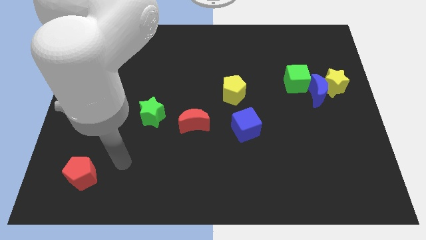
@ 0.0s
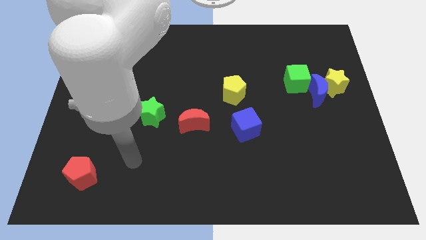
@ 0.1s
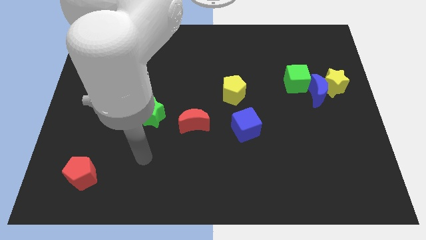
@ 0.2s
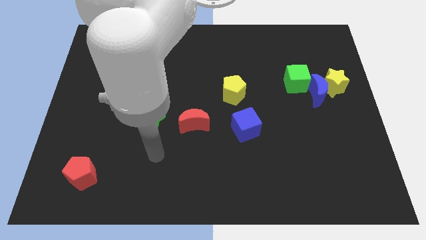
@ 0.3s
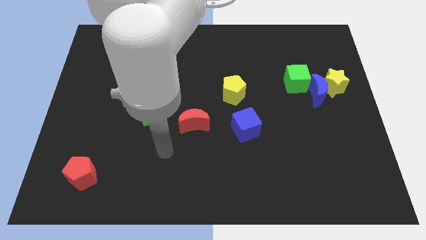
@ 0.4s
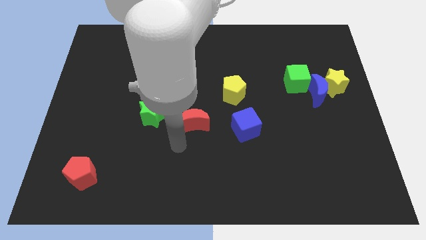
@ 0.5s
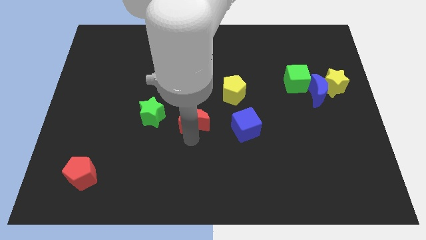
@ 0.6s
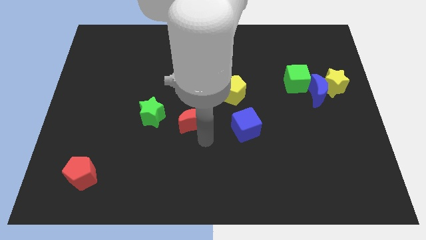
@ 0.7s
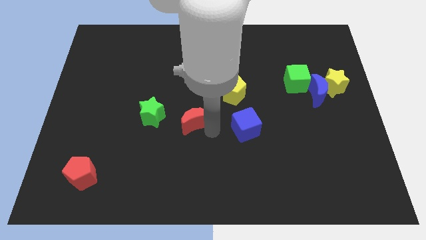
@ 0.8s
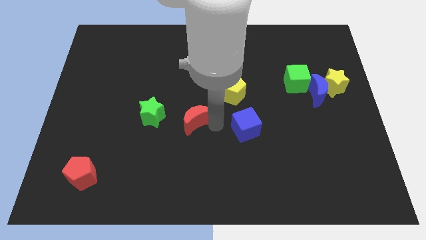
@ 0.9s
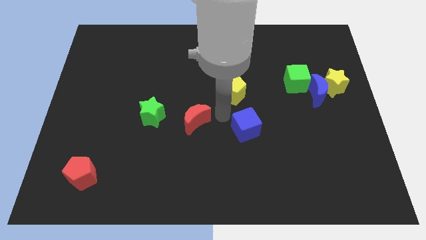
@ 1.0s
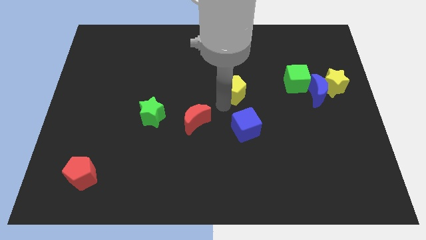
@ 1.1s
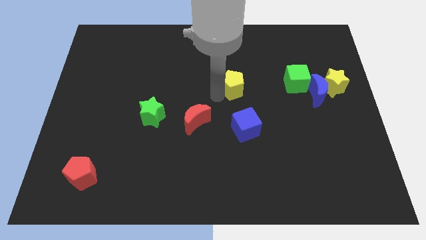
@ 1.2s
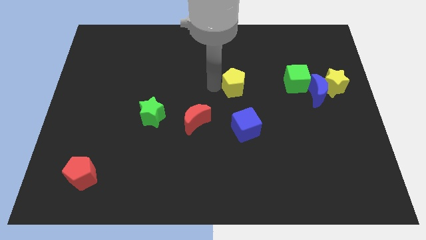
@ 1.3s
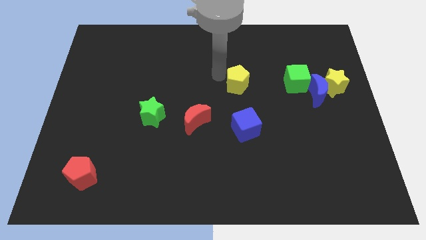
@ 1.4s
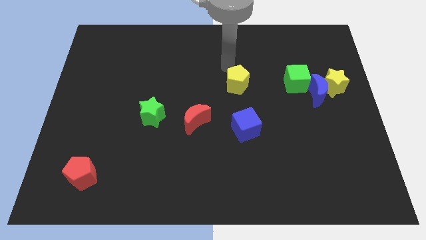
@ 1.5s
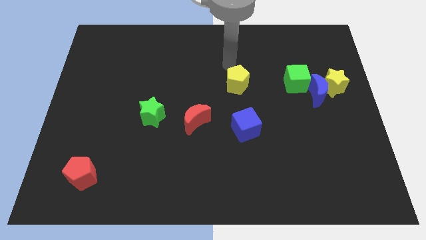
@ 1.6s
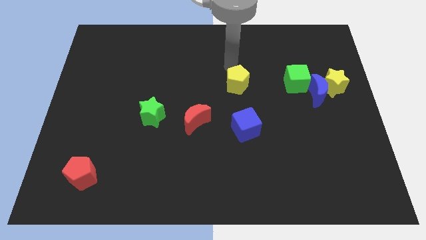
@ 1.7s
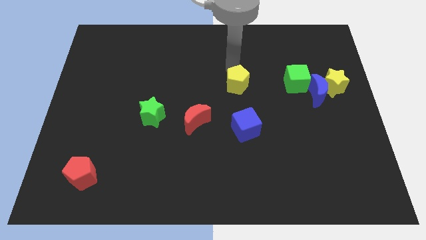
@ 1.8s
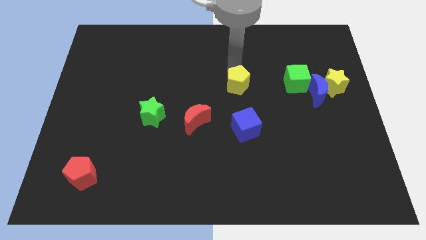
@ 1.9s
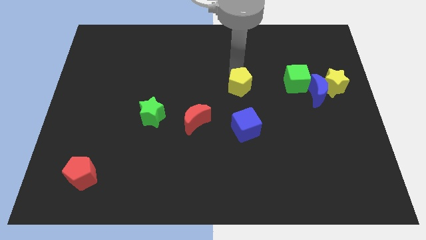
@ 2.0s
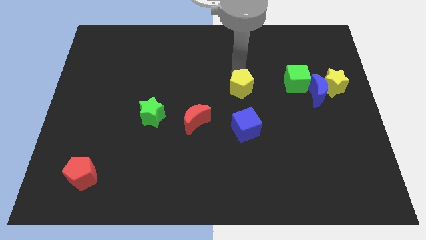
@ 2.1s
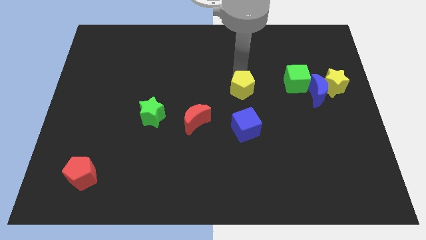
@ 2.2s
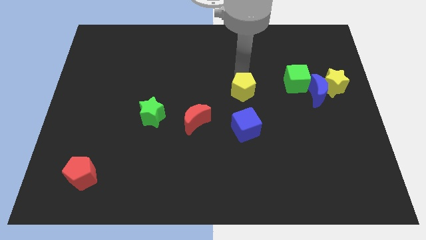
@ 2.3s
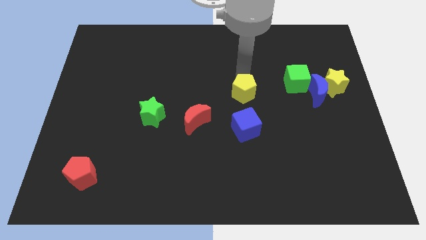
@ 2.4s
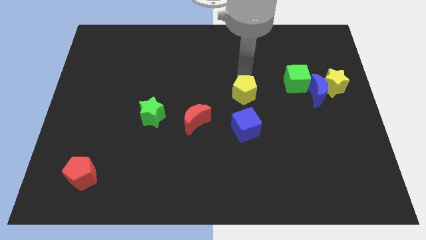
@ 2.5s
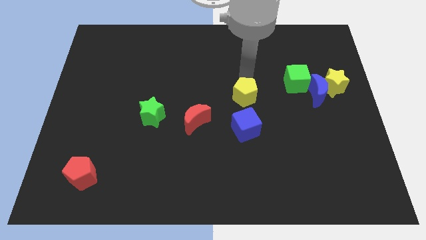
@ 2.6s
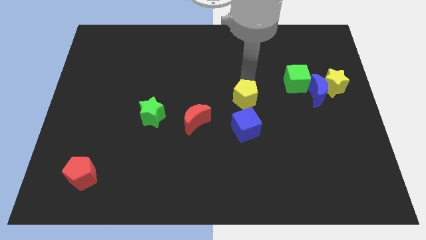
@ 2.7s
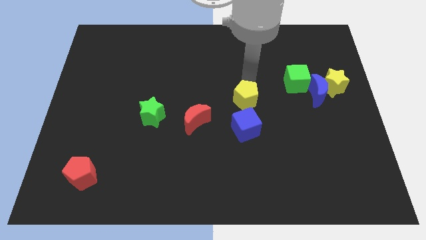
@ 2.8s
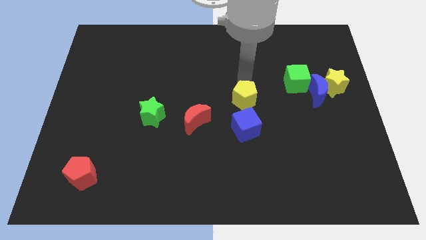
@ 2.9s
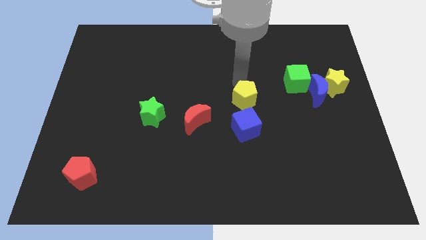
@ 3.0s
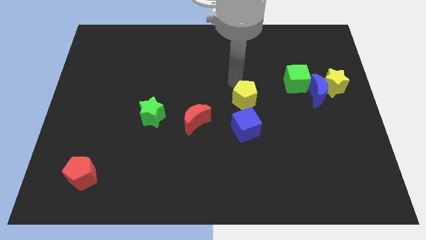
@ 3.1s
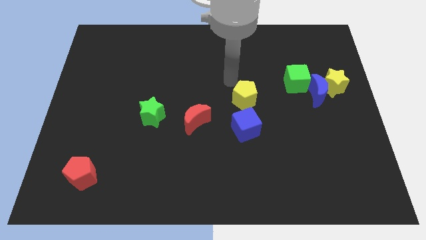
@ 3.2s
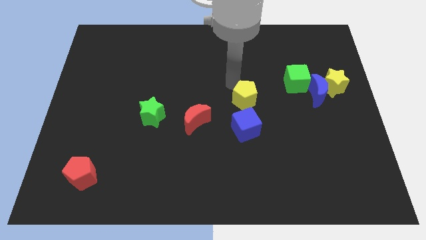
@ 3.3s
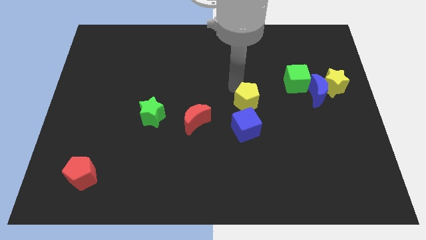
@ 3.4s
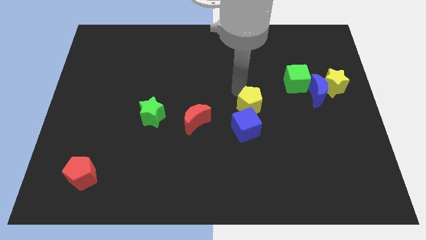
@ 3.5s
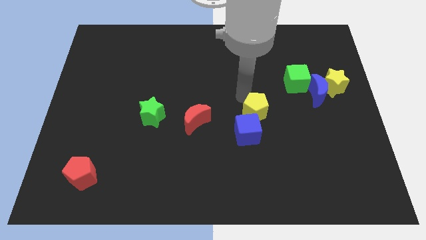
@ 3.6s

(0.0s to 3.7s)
push the yellow pentagon a little bit diagonally downwards and right

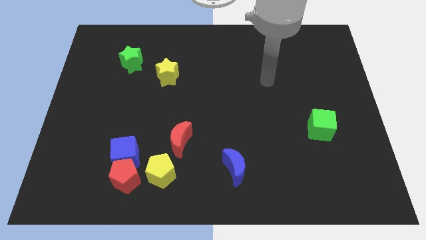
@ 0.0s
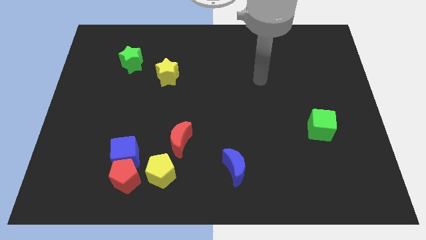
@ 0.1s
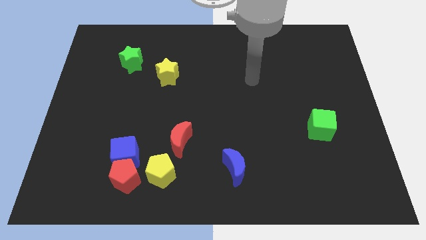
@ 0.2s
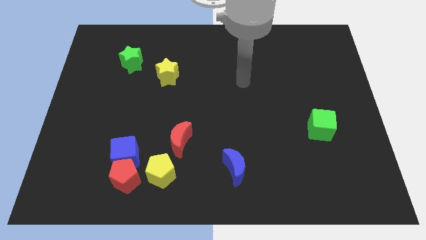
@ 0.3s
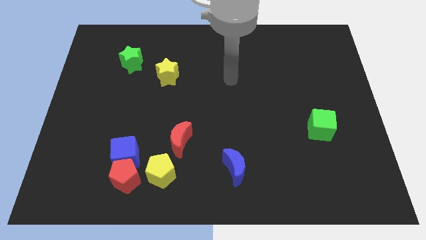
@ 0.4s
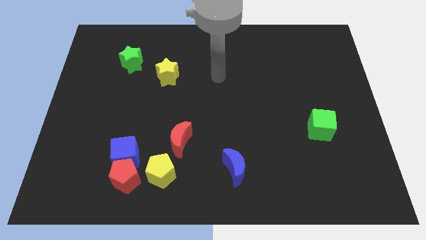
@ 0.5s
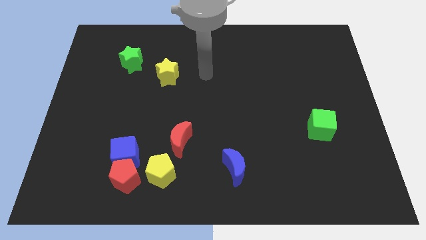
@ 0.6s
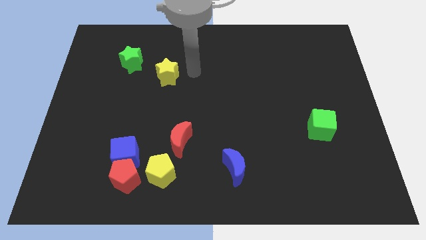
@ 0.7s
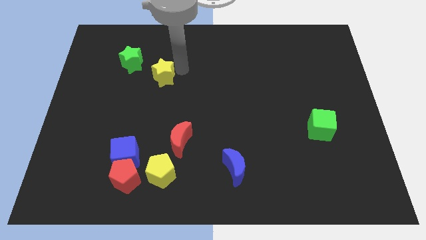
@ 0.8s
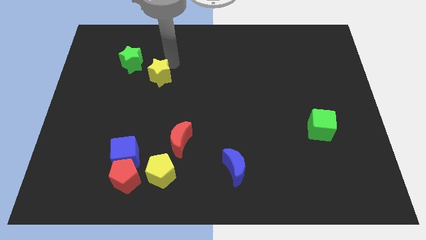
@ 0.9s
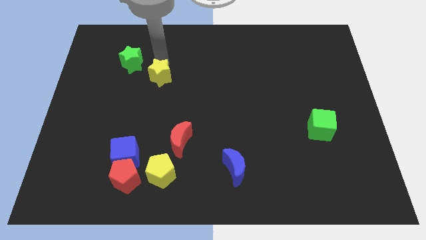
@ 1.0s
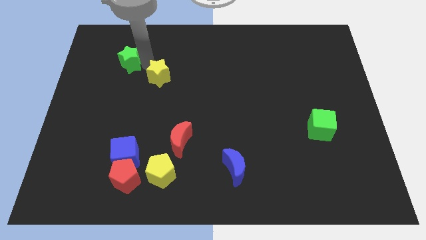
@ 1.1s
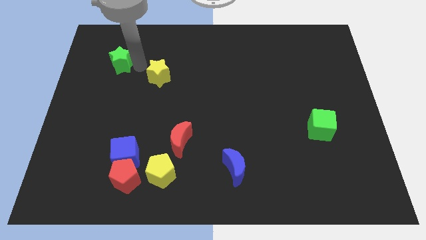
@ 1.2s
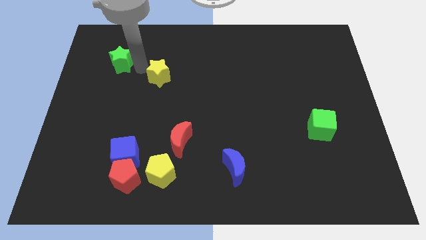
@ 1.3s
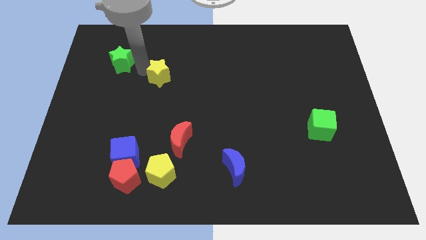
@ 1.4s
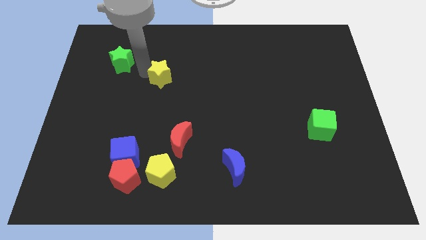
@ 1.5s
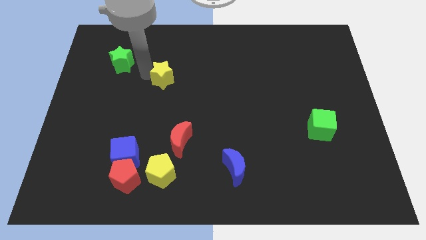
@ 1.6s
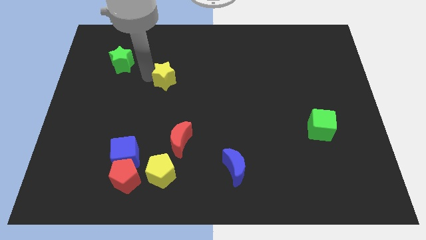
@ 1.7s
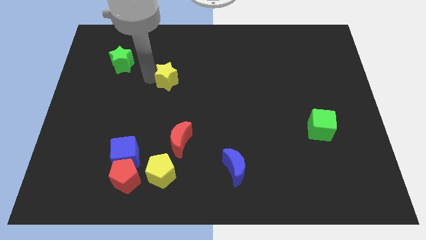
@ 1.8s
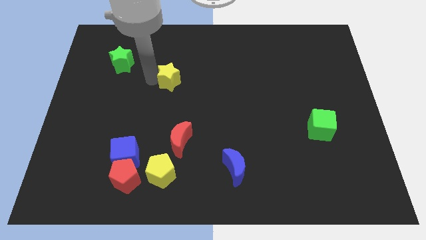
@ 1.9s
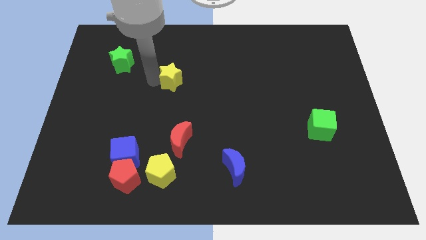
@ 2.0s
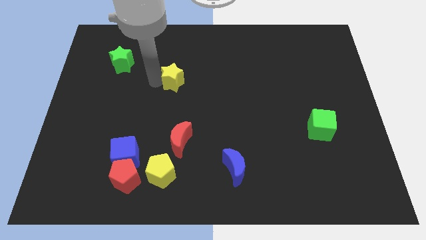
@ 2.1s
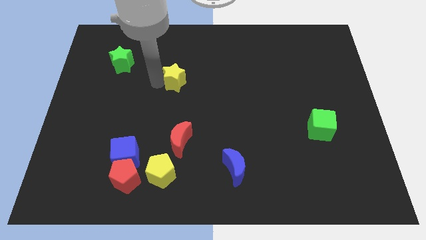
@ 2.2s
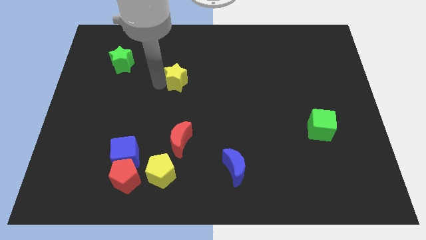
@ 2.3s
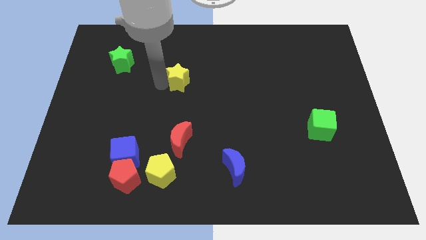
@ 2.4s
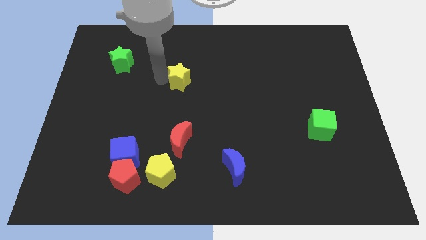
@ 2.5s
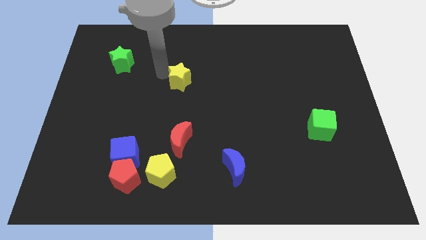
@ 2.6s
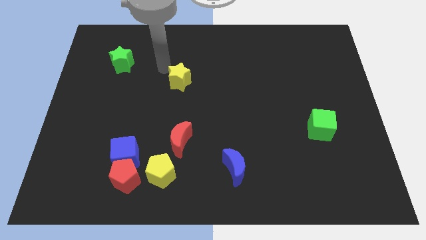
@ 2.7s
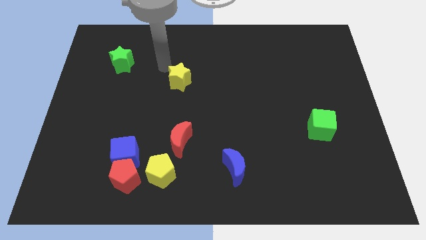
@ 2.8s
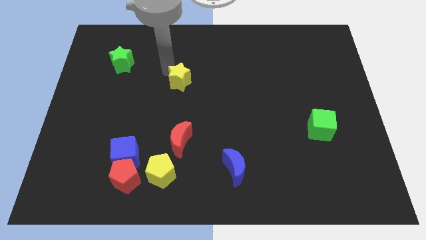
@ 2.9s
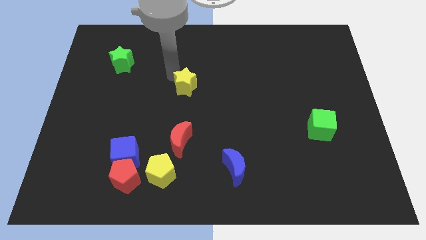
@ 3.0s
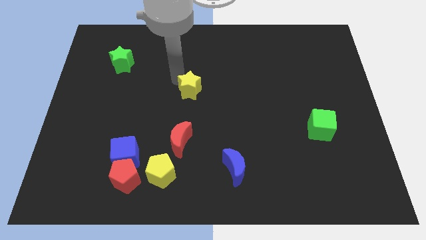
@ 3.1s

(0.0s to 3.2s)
slightly push the yellow star downwards and right

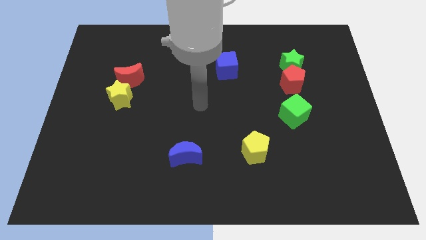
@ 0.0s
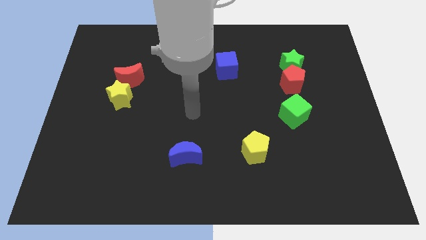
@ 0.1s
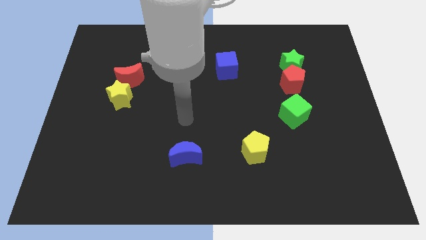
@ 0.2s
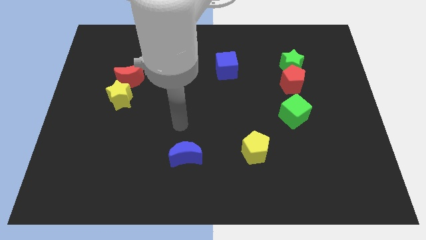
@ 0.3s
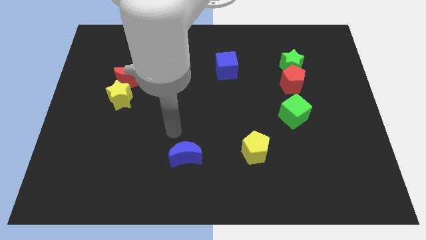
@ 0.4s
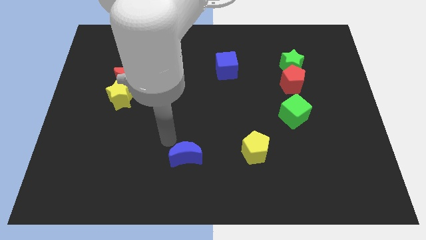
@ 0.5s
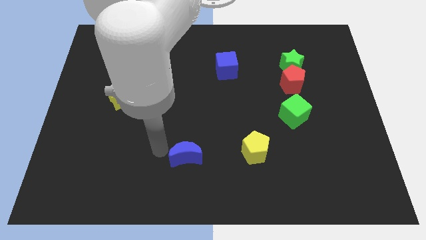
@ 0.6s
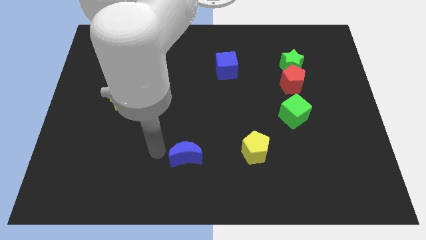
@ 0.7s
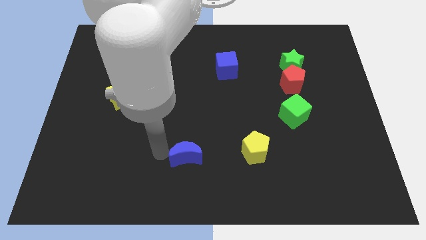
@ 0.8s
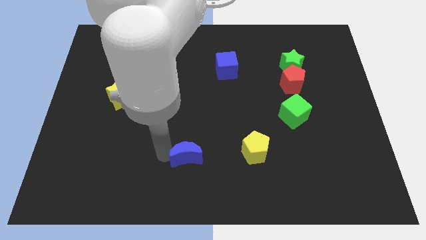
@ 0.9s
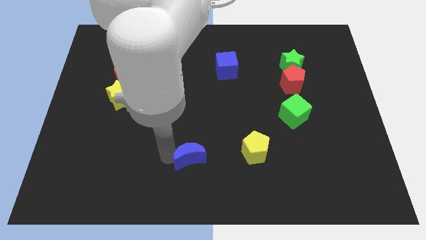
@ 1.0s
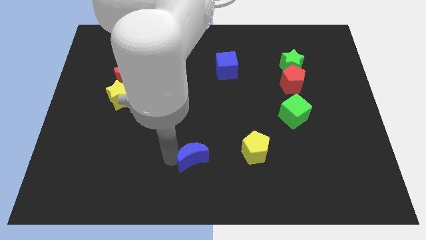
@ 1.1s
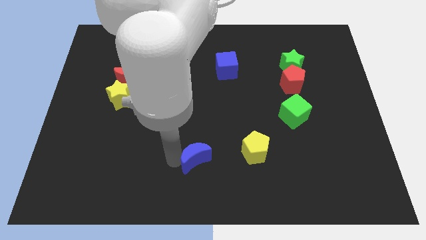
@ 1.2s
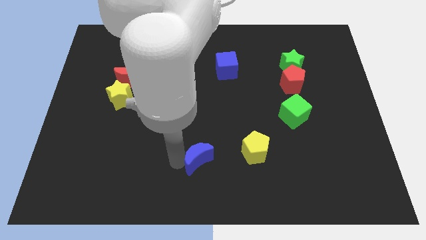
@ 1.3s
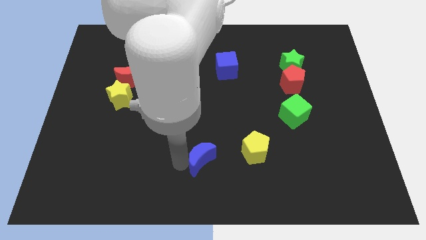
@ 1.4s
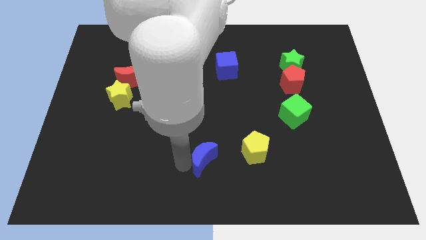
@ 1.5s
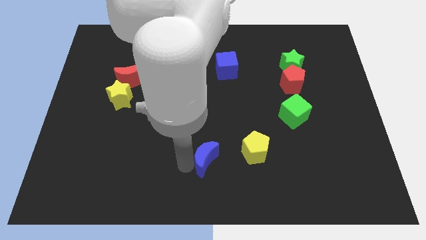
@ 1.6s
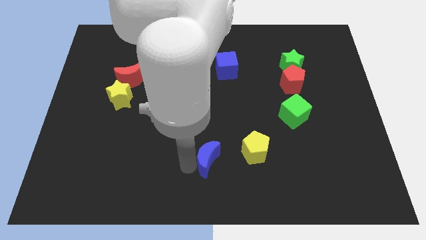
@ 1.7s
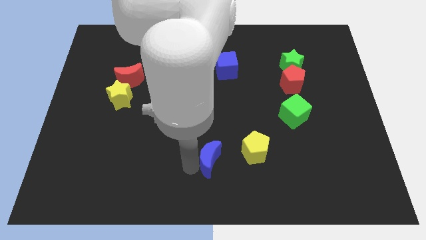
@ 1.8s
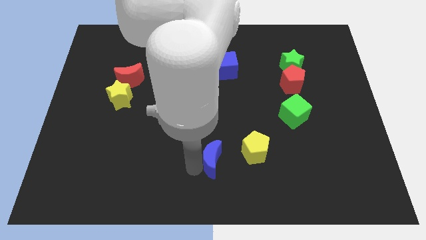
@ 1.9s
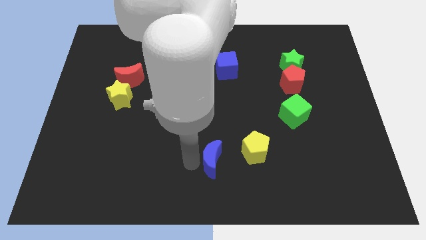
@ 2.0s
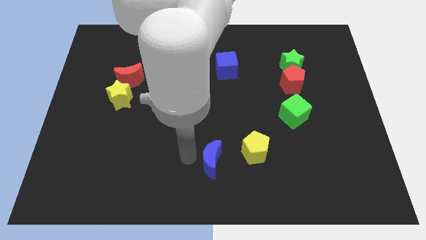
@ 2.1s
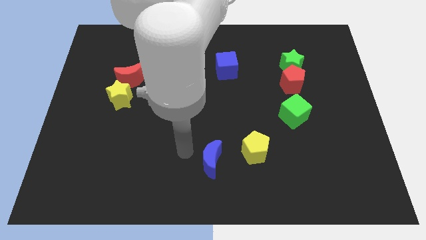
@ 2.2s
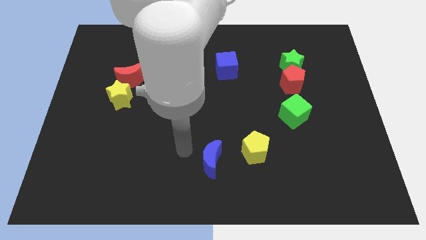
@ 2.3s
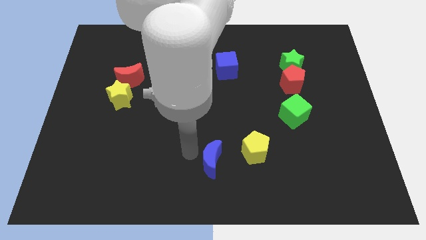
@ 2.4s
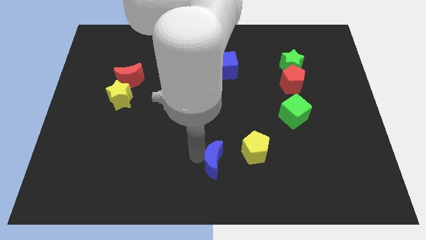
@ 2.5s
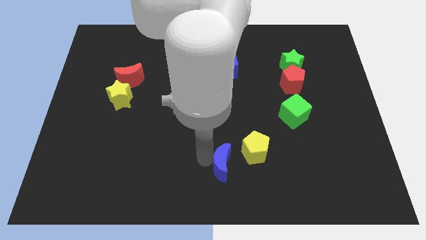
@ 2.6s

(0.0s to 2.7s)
push the blue moon right a little
